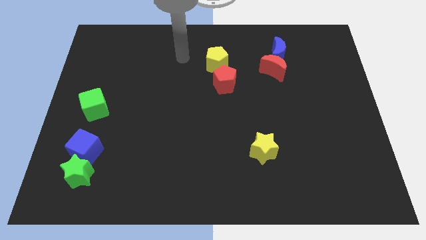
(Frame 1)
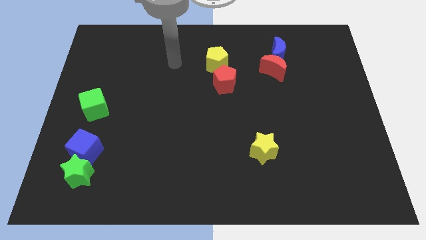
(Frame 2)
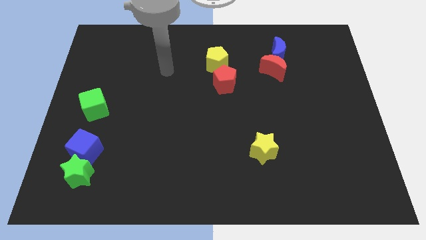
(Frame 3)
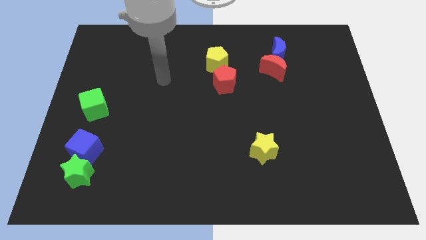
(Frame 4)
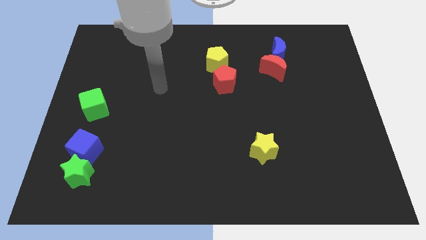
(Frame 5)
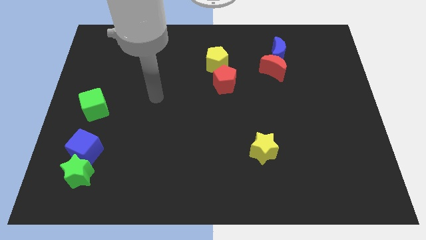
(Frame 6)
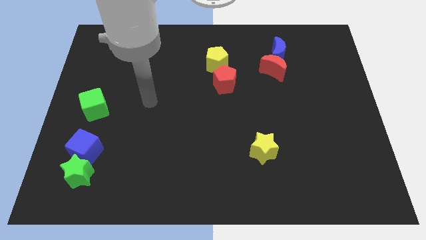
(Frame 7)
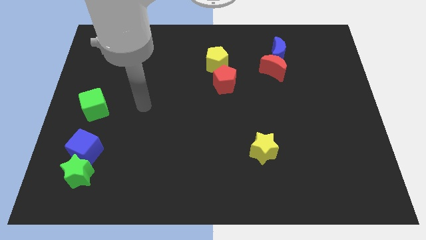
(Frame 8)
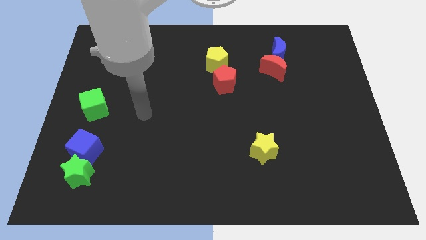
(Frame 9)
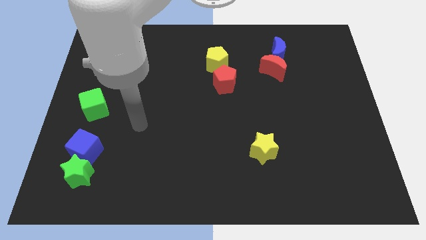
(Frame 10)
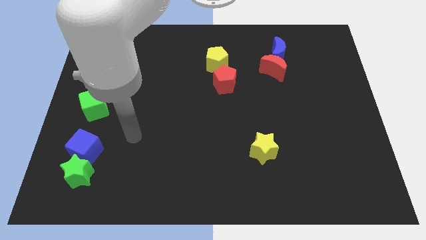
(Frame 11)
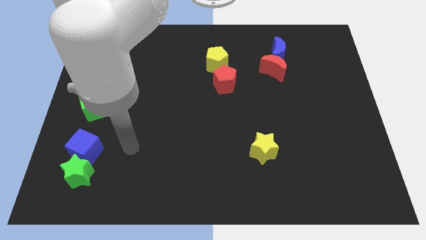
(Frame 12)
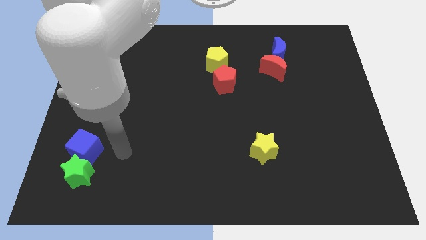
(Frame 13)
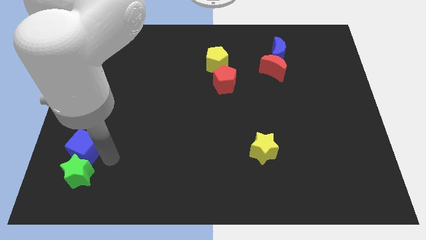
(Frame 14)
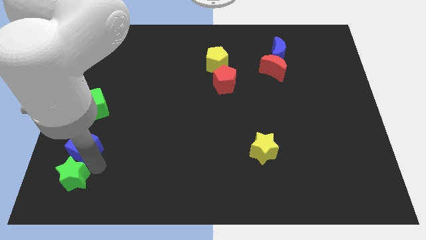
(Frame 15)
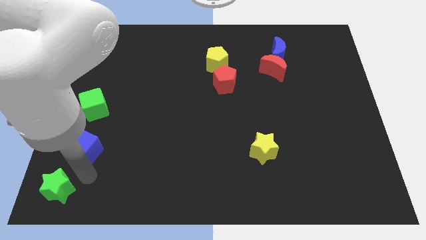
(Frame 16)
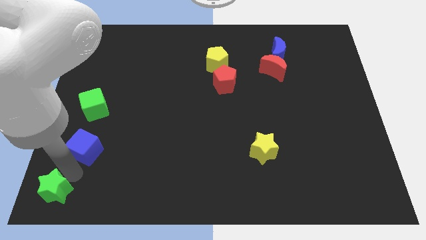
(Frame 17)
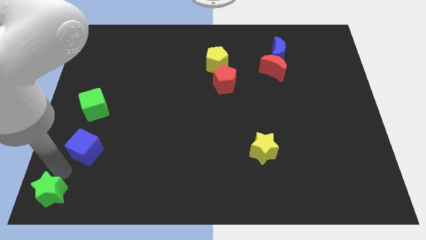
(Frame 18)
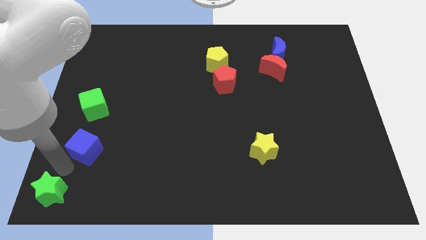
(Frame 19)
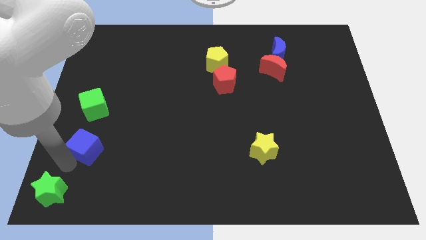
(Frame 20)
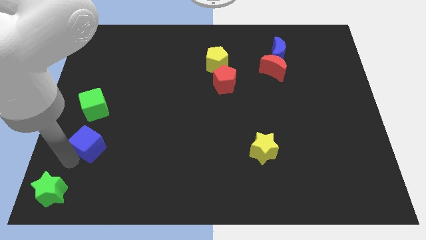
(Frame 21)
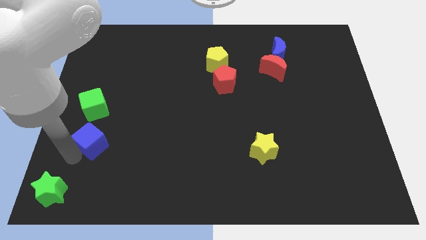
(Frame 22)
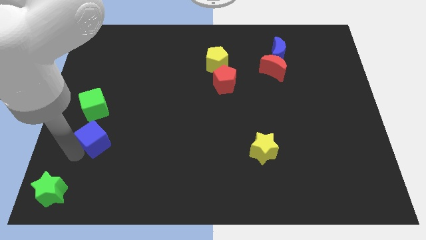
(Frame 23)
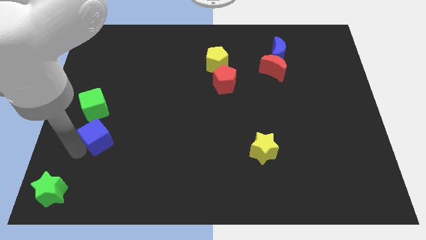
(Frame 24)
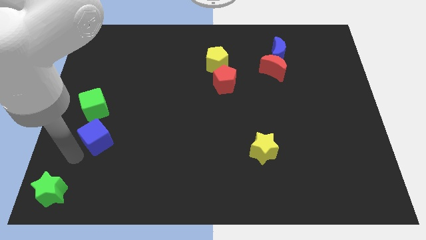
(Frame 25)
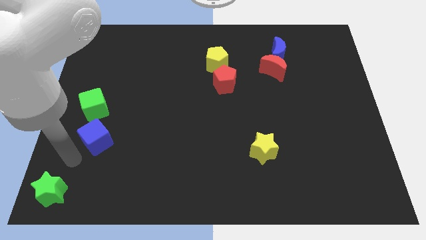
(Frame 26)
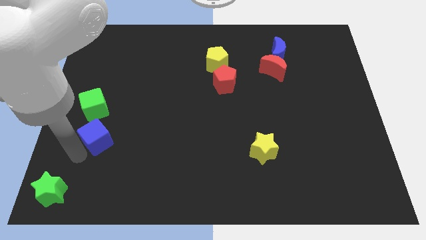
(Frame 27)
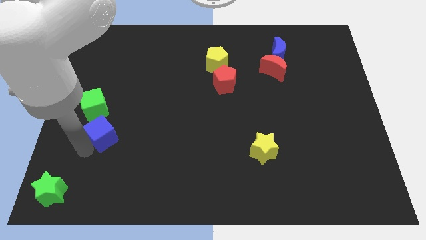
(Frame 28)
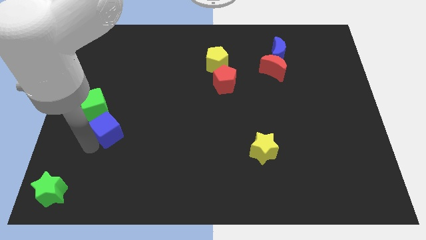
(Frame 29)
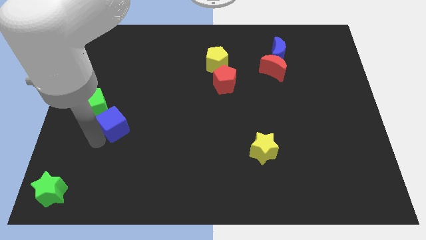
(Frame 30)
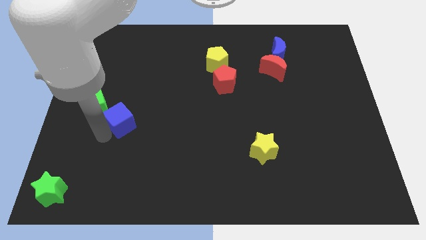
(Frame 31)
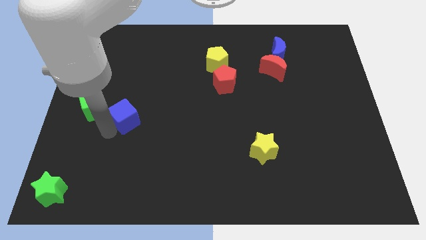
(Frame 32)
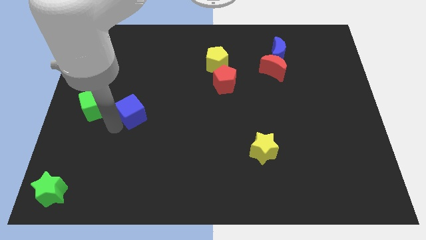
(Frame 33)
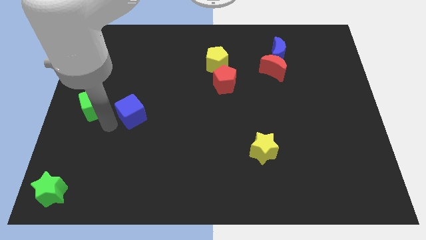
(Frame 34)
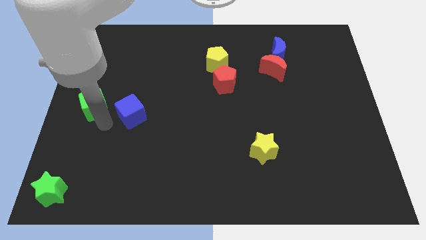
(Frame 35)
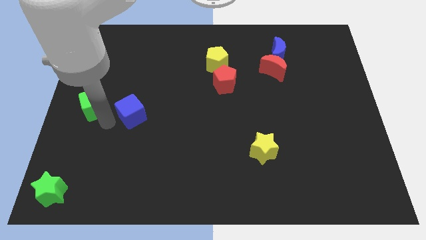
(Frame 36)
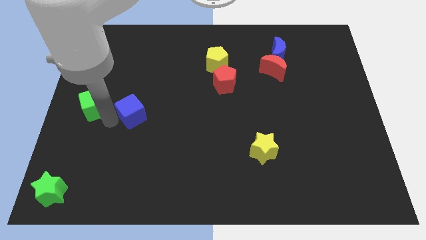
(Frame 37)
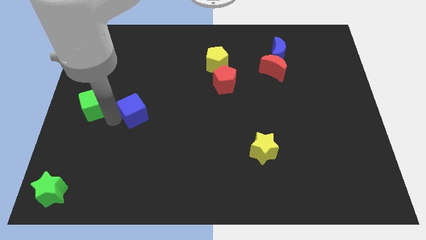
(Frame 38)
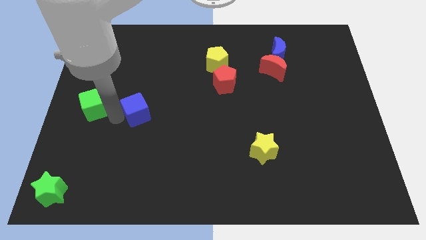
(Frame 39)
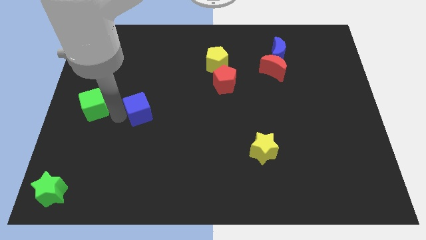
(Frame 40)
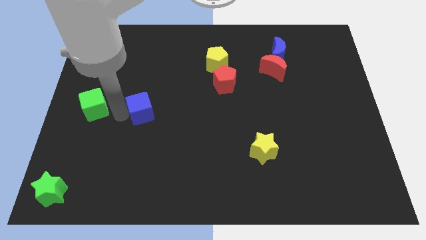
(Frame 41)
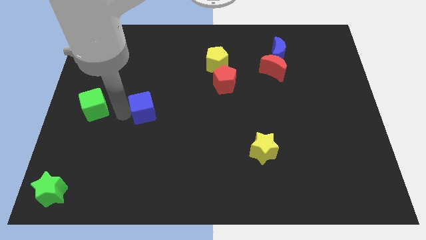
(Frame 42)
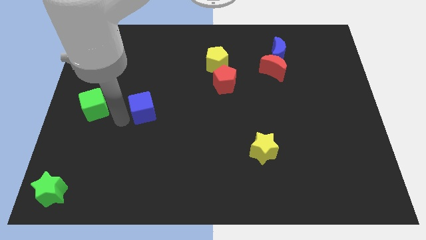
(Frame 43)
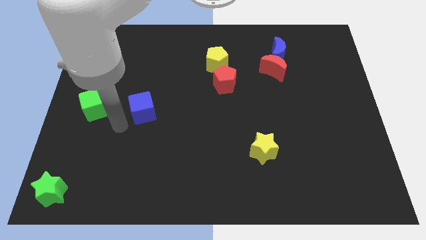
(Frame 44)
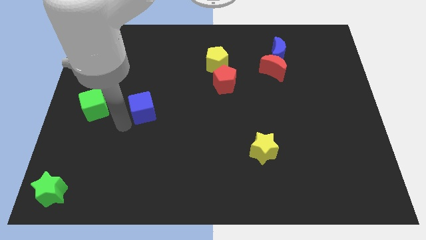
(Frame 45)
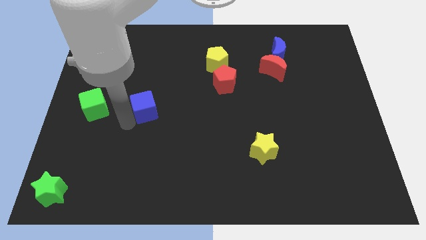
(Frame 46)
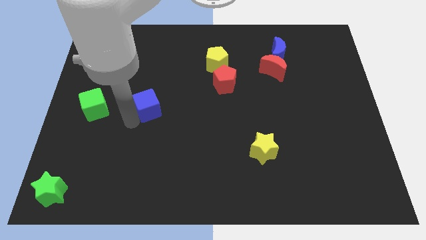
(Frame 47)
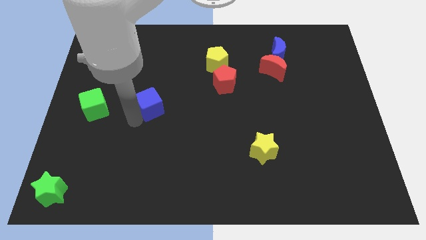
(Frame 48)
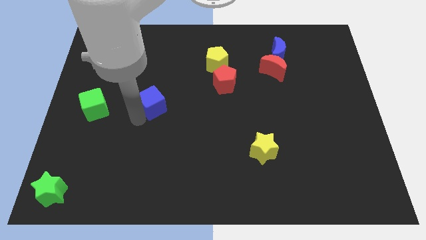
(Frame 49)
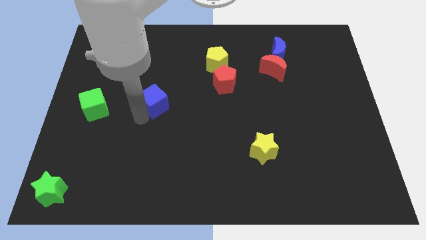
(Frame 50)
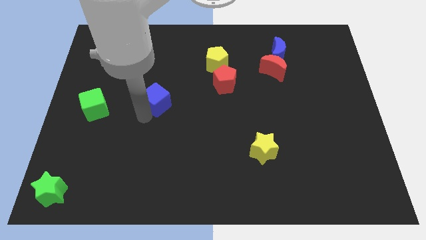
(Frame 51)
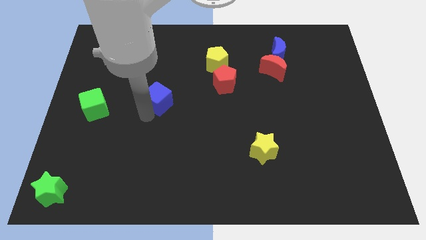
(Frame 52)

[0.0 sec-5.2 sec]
push the blue cube up and then to the right

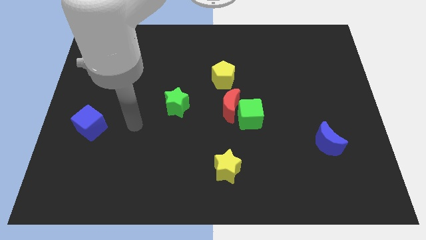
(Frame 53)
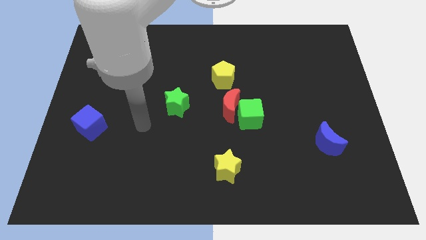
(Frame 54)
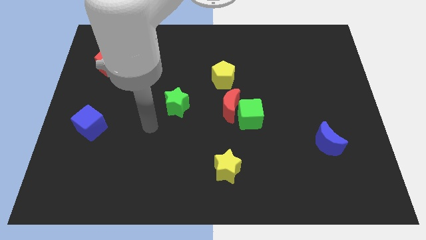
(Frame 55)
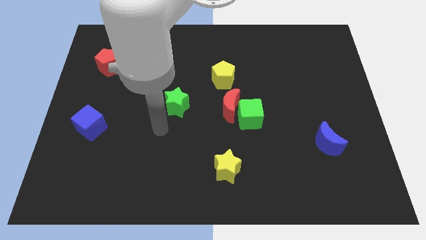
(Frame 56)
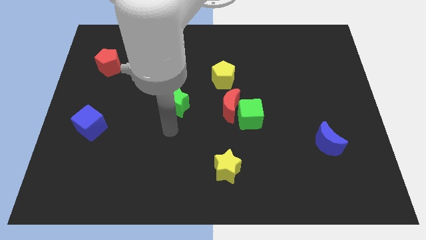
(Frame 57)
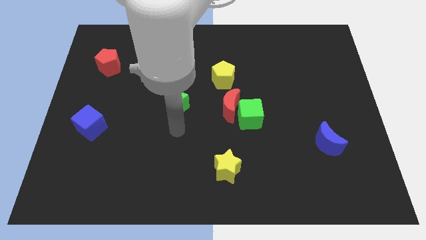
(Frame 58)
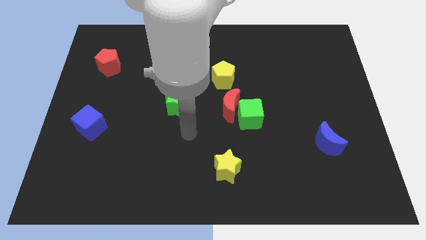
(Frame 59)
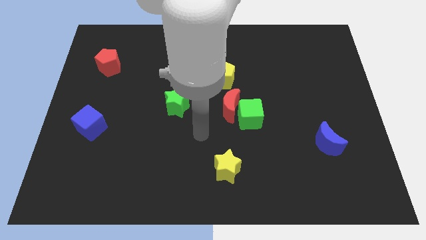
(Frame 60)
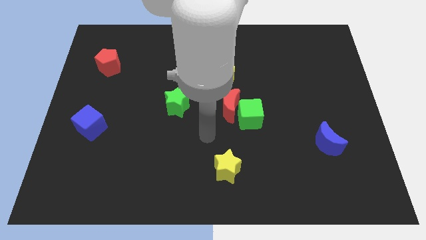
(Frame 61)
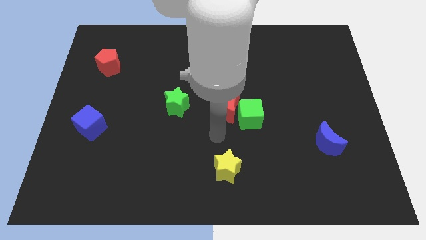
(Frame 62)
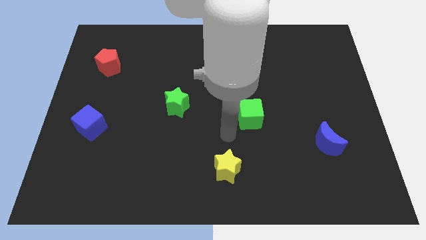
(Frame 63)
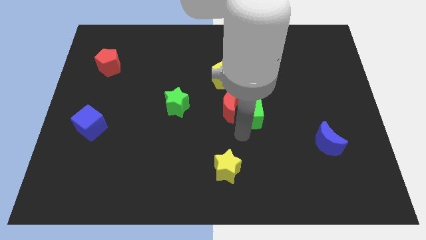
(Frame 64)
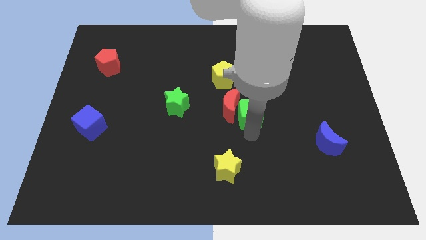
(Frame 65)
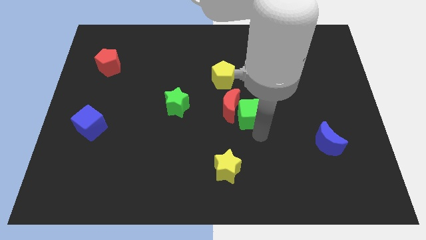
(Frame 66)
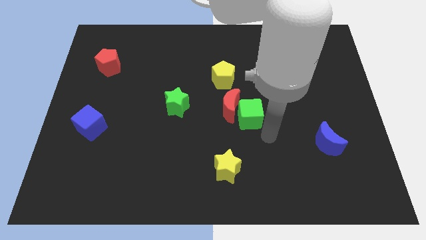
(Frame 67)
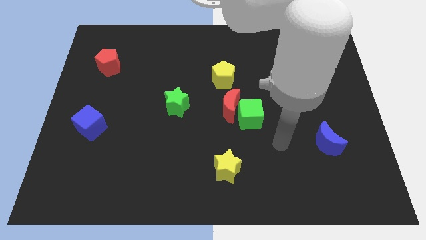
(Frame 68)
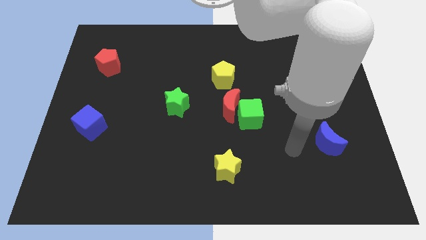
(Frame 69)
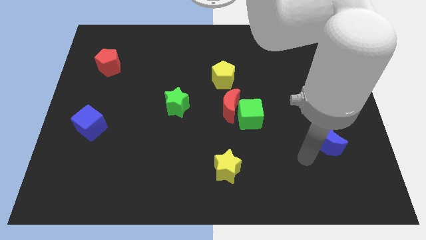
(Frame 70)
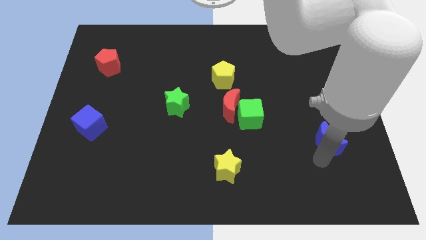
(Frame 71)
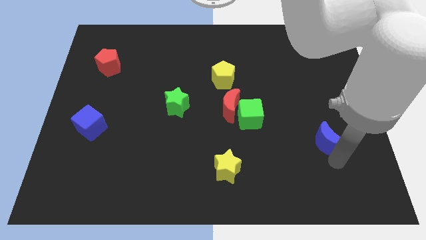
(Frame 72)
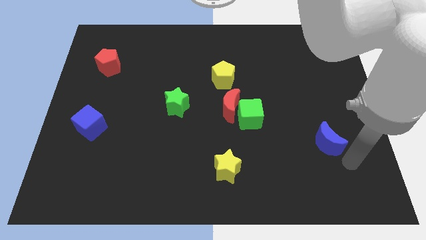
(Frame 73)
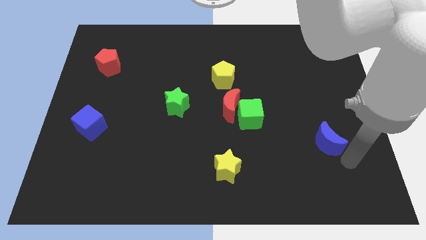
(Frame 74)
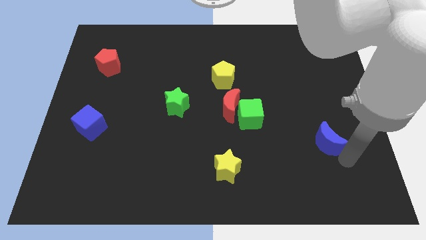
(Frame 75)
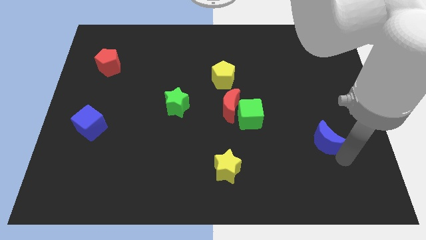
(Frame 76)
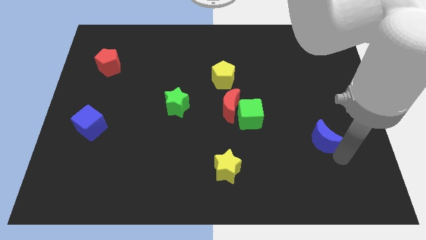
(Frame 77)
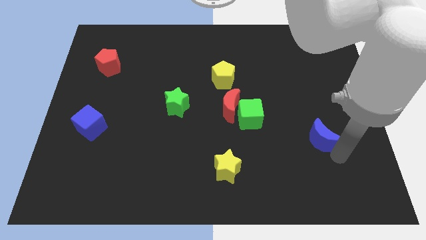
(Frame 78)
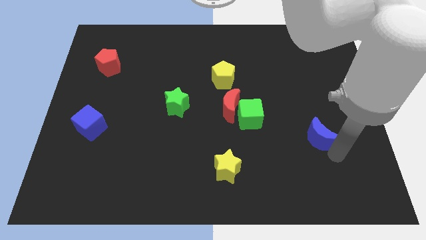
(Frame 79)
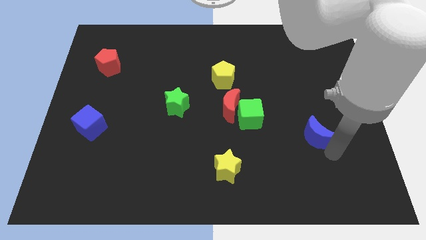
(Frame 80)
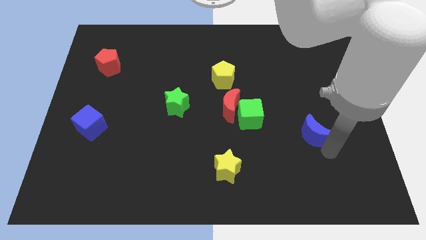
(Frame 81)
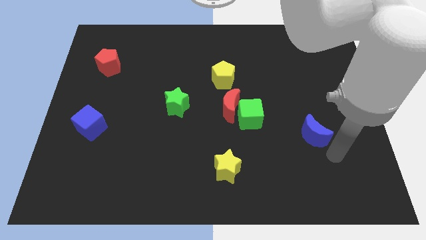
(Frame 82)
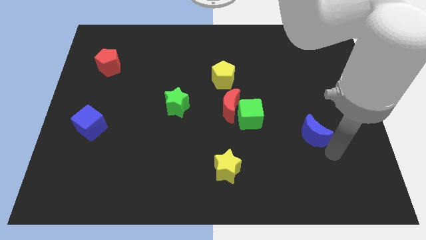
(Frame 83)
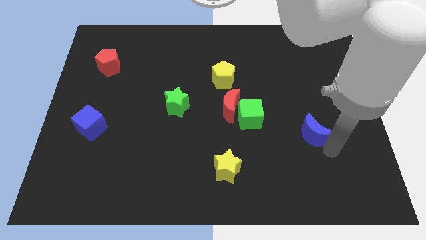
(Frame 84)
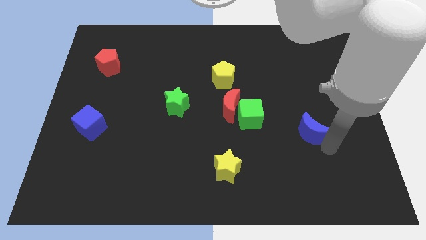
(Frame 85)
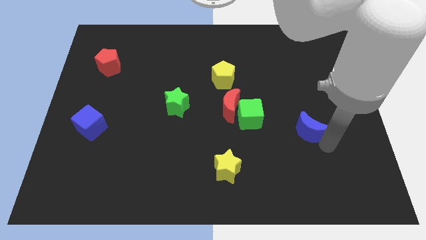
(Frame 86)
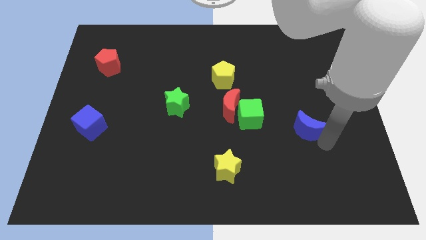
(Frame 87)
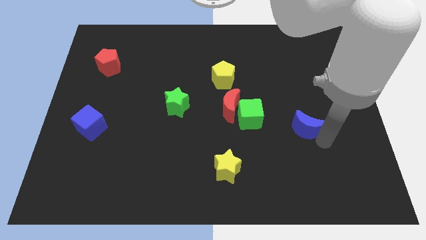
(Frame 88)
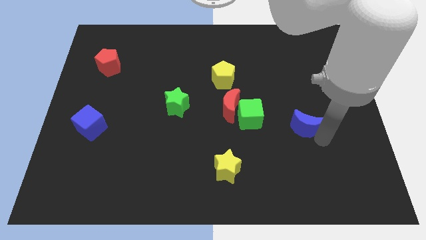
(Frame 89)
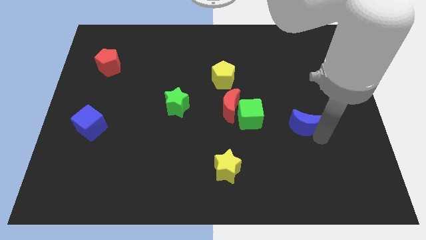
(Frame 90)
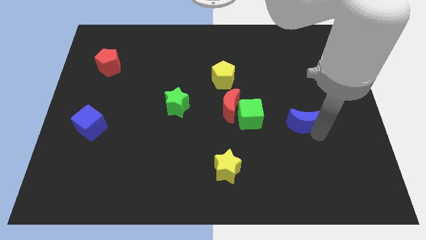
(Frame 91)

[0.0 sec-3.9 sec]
slide the blue moon a bit upwards and then left
